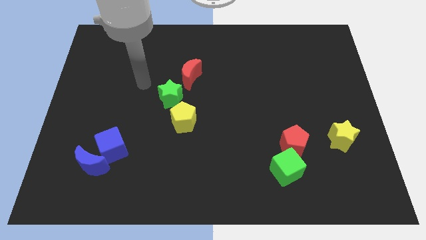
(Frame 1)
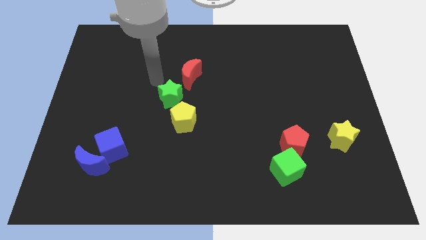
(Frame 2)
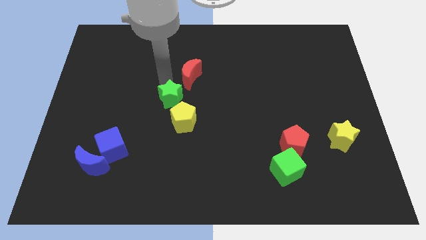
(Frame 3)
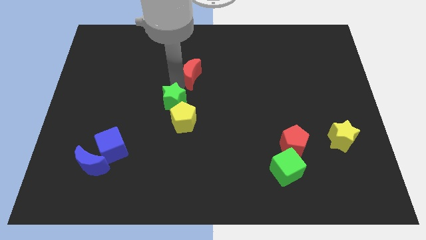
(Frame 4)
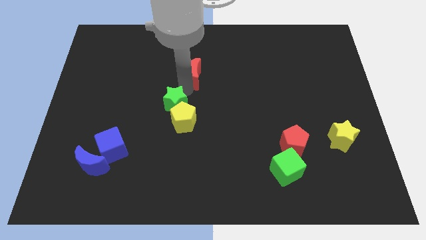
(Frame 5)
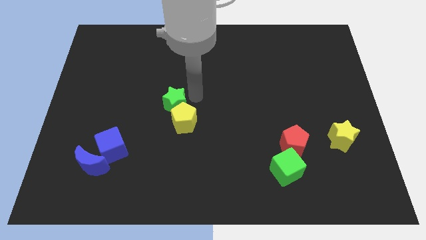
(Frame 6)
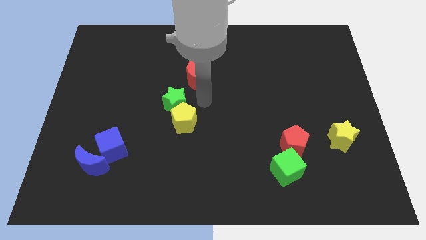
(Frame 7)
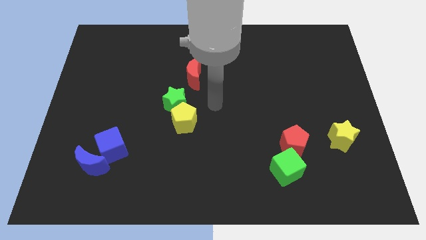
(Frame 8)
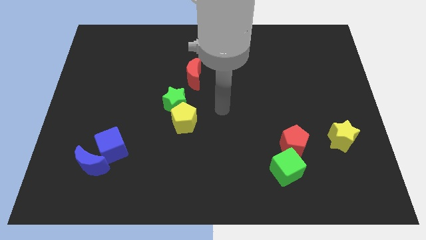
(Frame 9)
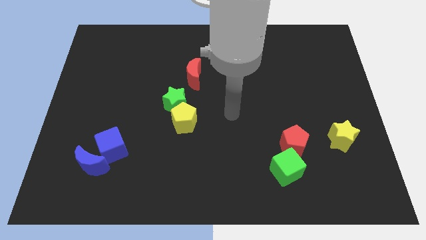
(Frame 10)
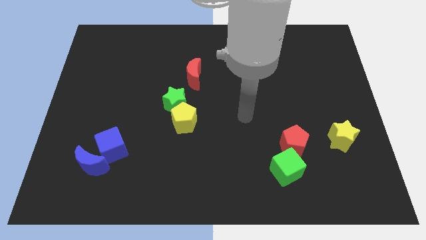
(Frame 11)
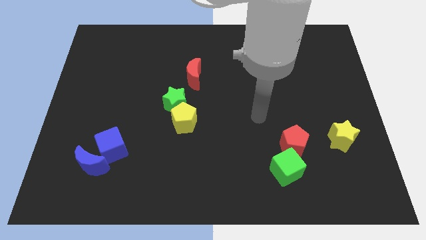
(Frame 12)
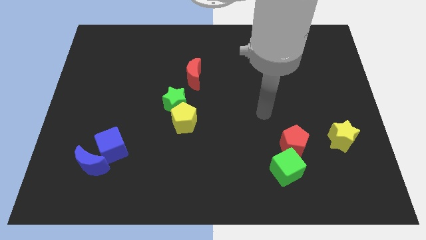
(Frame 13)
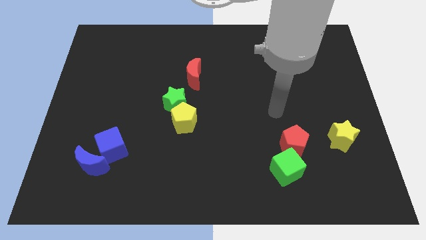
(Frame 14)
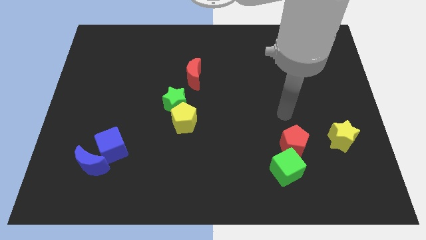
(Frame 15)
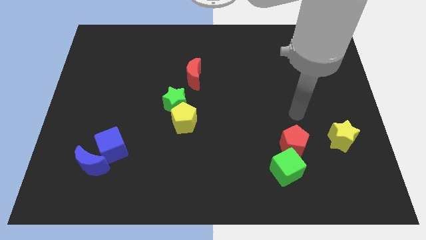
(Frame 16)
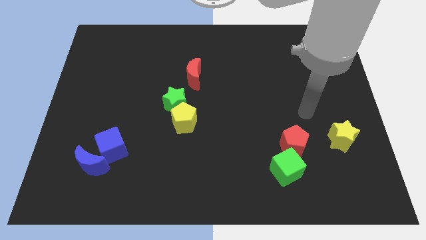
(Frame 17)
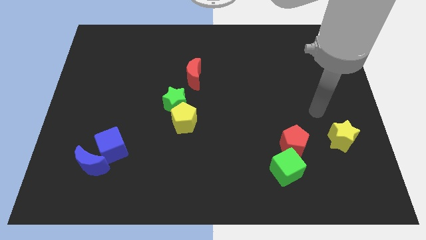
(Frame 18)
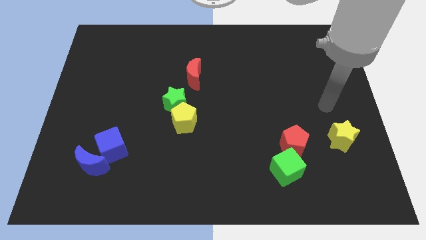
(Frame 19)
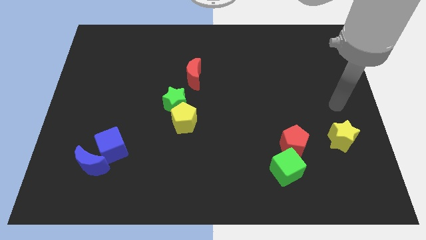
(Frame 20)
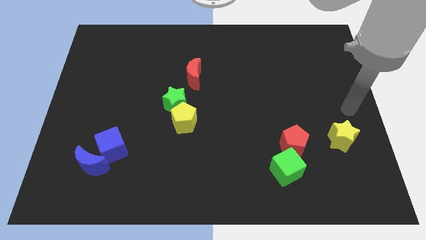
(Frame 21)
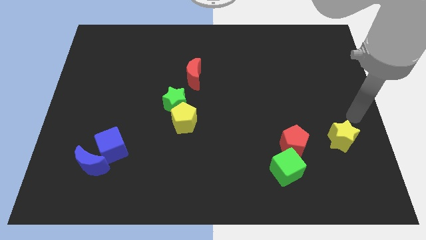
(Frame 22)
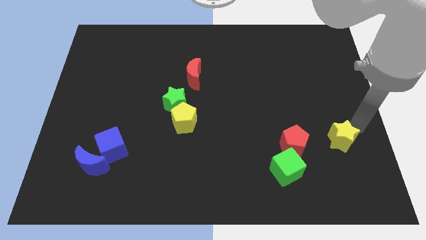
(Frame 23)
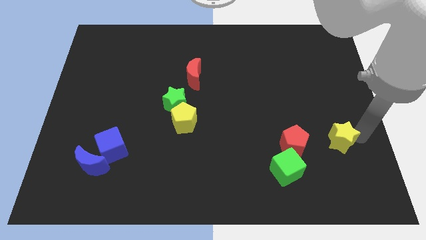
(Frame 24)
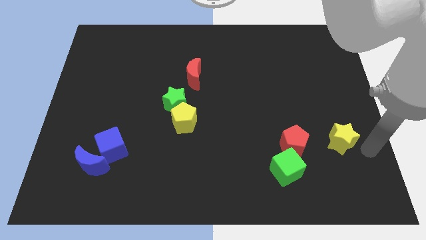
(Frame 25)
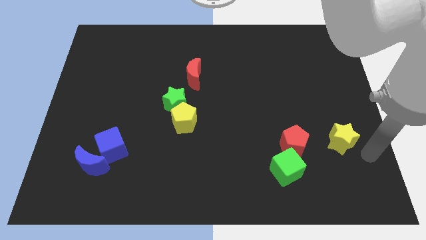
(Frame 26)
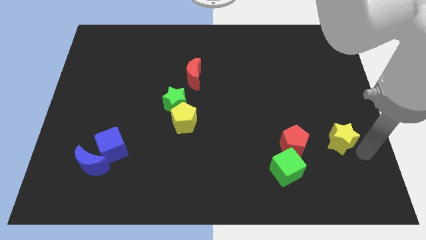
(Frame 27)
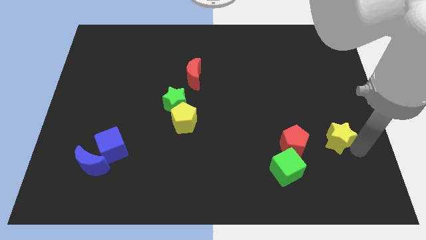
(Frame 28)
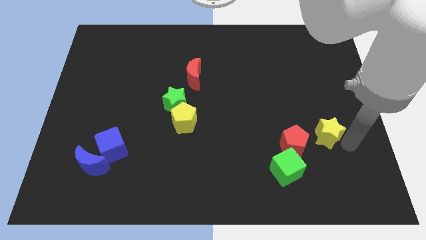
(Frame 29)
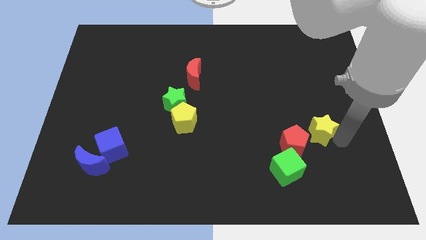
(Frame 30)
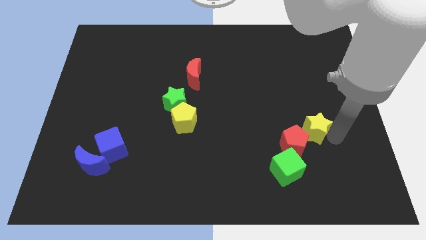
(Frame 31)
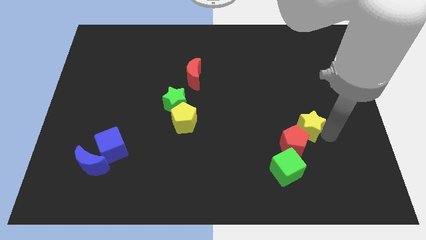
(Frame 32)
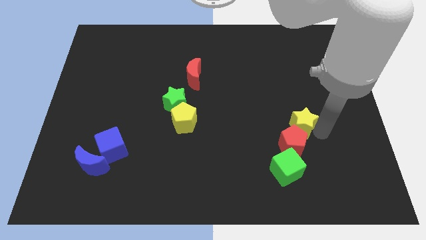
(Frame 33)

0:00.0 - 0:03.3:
move the yellow star left somewhat

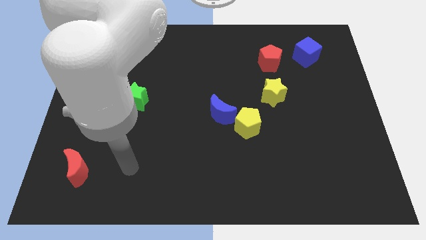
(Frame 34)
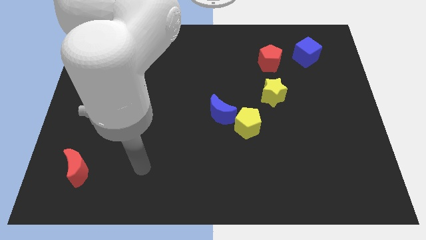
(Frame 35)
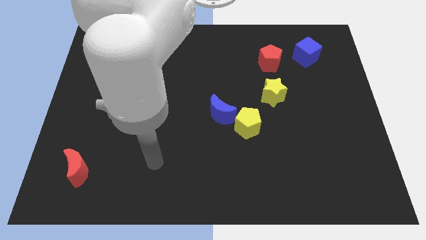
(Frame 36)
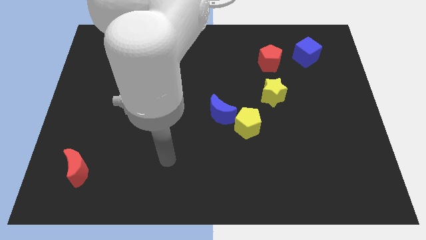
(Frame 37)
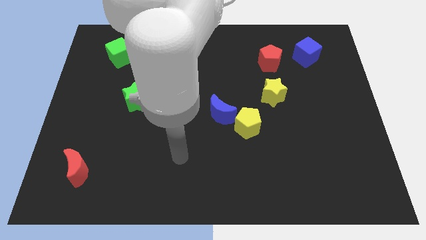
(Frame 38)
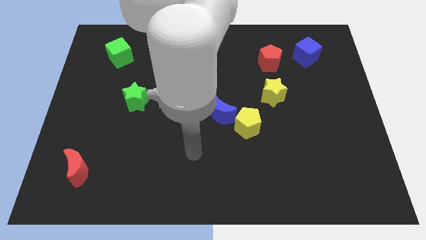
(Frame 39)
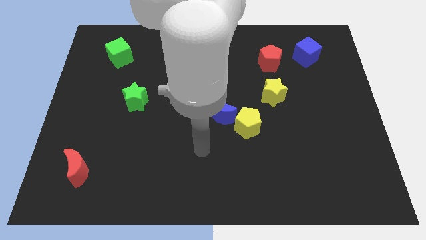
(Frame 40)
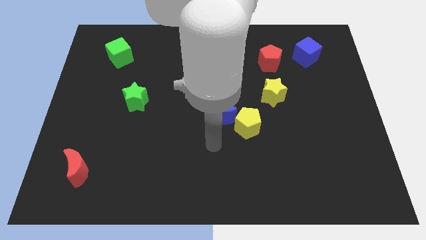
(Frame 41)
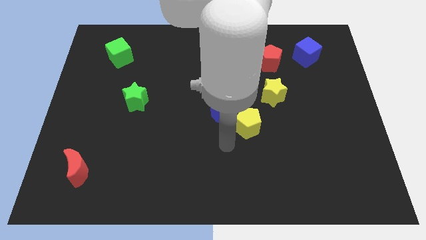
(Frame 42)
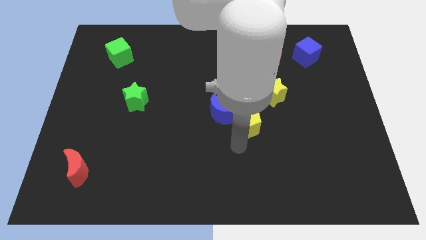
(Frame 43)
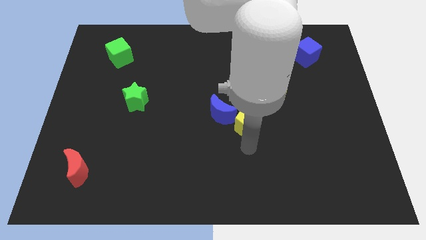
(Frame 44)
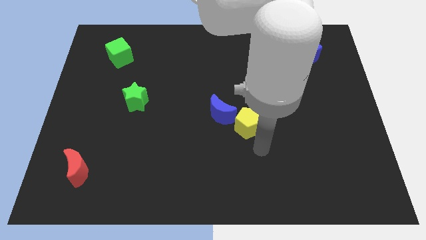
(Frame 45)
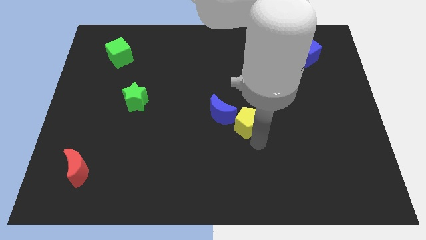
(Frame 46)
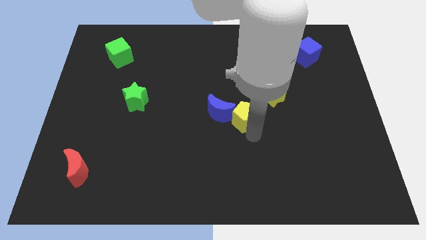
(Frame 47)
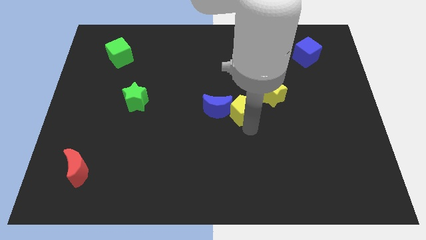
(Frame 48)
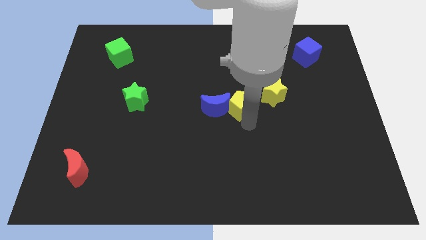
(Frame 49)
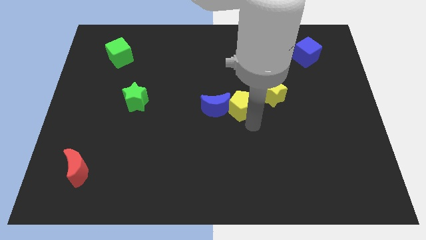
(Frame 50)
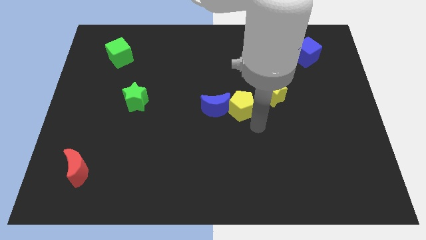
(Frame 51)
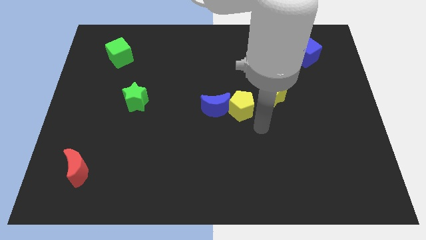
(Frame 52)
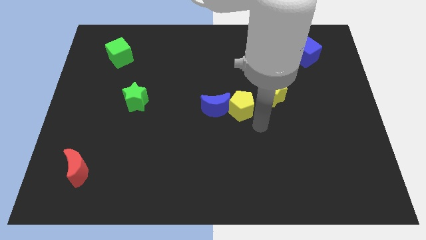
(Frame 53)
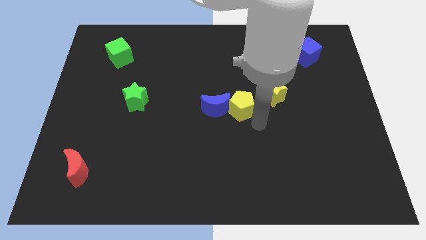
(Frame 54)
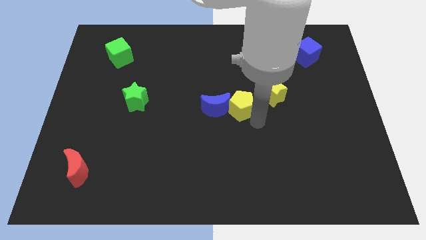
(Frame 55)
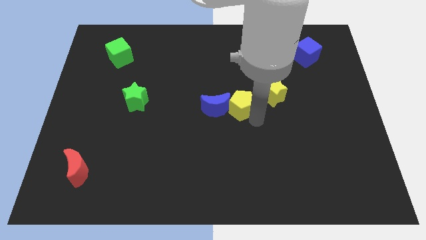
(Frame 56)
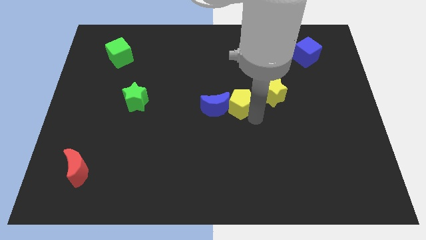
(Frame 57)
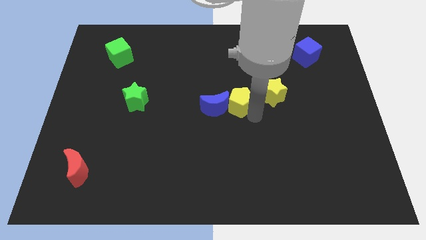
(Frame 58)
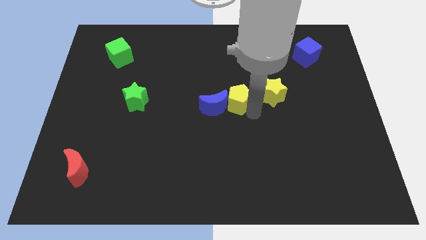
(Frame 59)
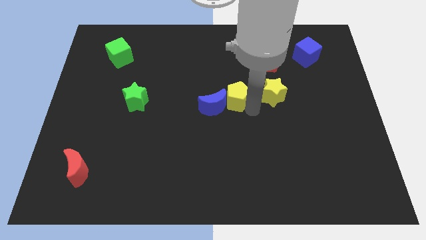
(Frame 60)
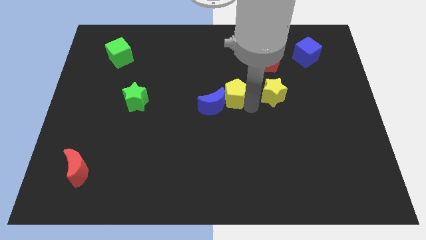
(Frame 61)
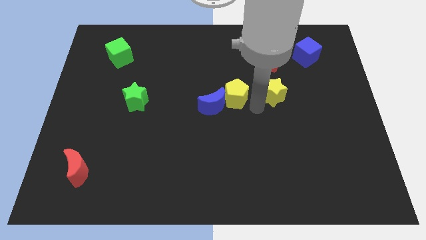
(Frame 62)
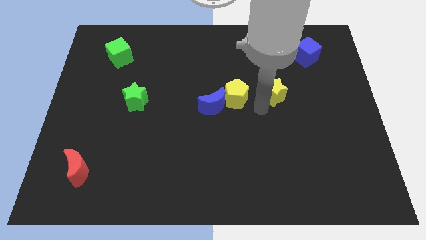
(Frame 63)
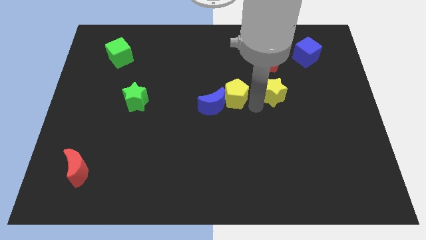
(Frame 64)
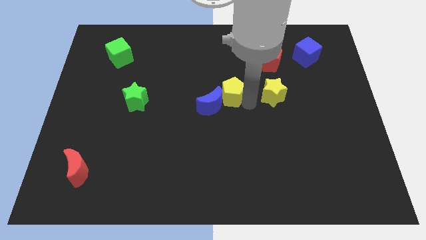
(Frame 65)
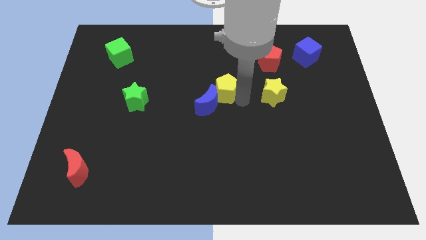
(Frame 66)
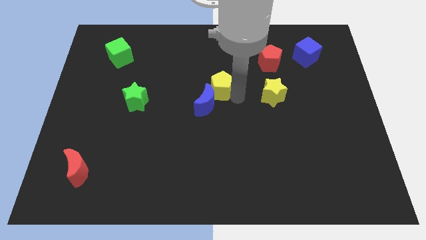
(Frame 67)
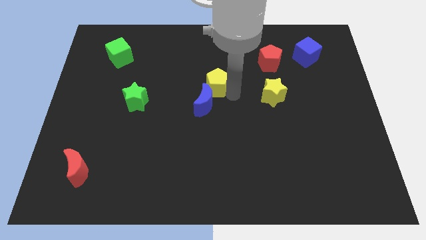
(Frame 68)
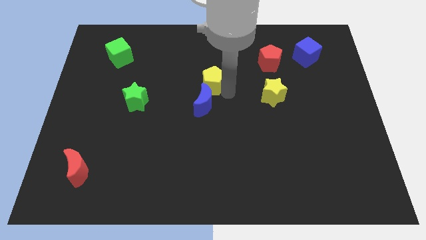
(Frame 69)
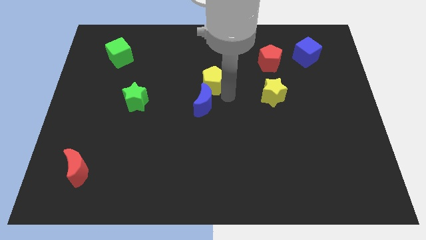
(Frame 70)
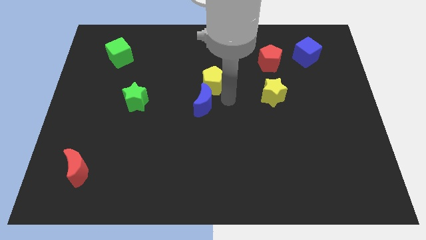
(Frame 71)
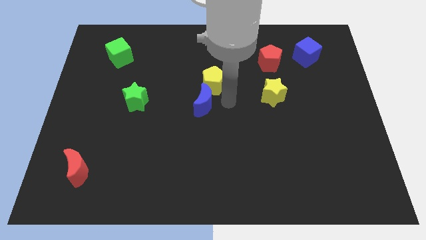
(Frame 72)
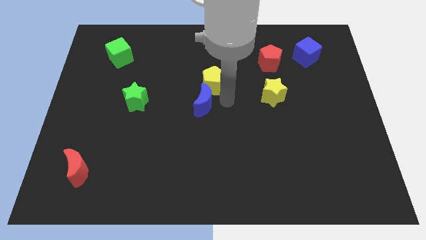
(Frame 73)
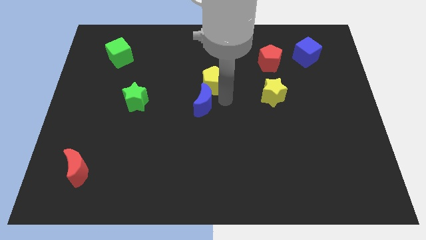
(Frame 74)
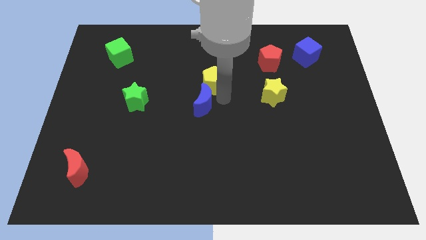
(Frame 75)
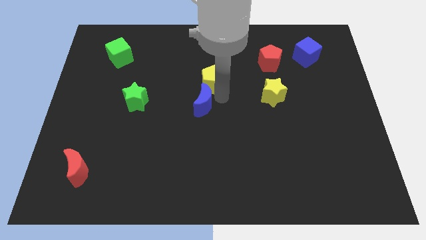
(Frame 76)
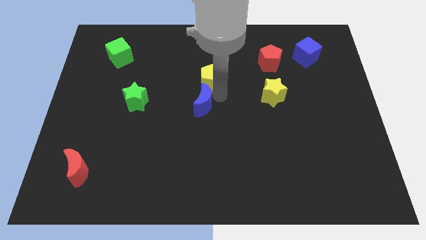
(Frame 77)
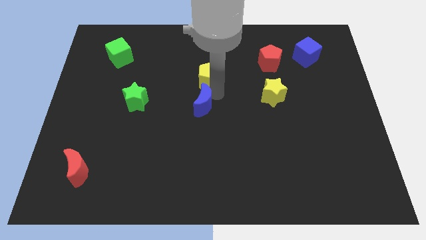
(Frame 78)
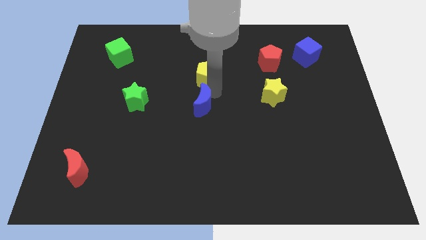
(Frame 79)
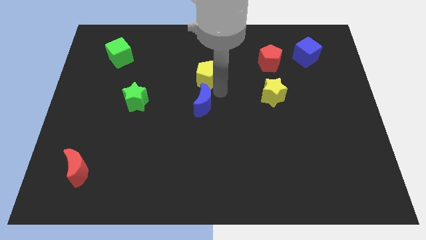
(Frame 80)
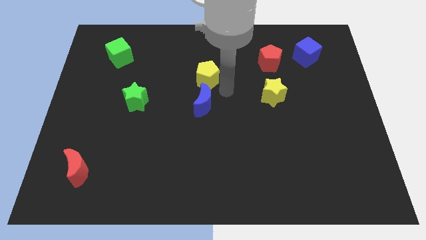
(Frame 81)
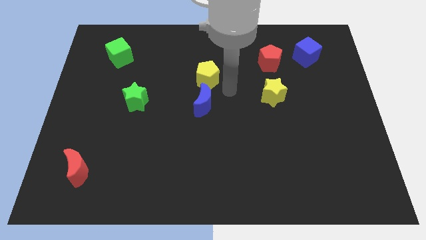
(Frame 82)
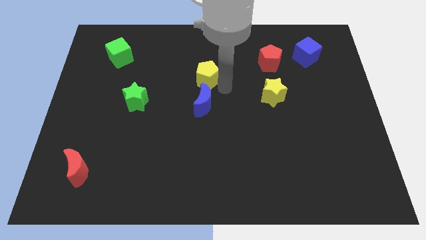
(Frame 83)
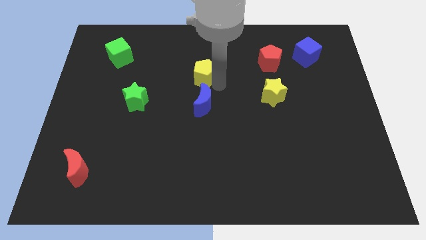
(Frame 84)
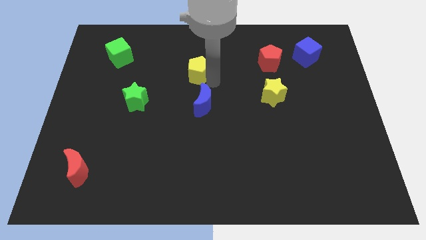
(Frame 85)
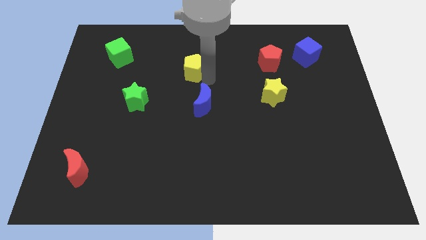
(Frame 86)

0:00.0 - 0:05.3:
move the yellow pentagon up and to the left diagonally
